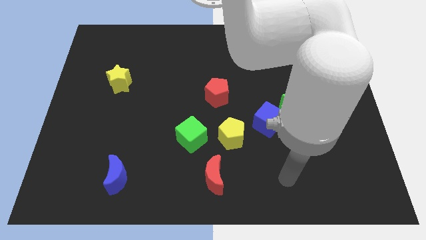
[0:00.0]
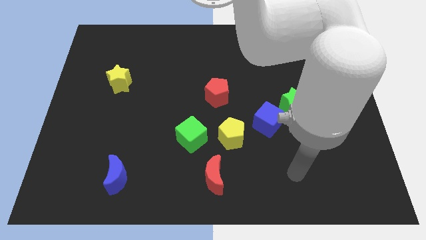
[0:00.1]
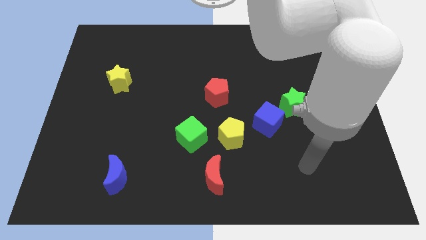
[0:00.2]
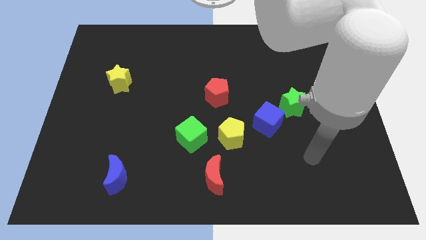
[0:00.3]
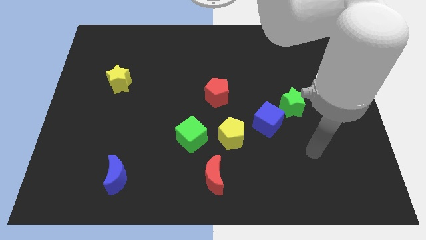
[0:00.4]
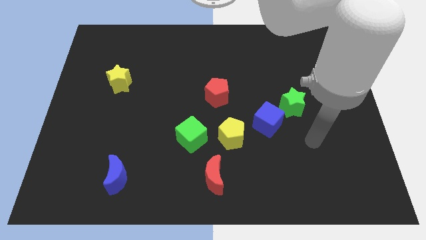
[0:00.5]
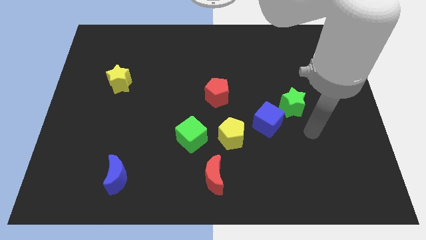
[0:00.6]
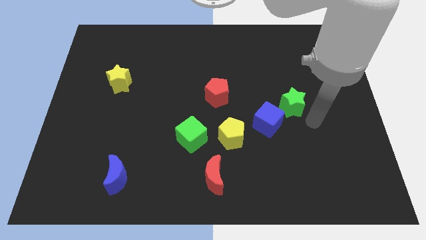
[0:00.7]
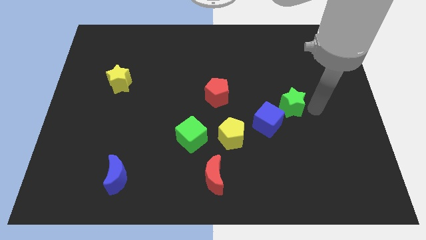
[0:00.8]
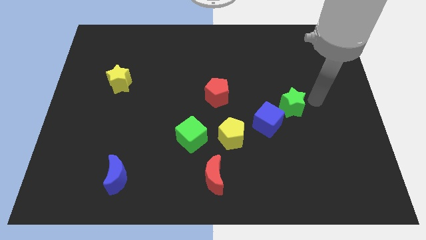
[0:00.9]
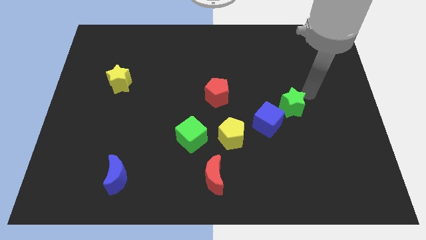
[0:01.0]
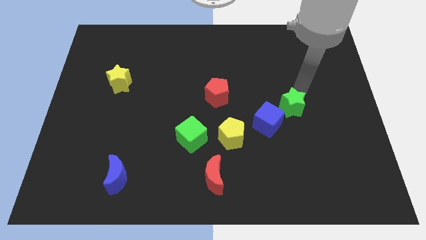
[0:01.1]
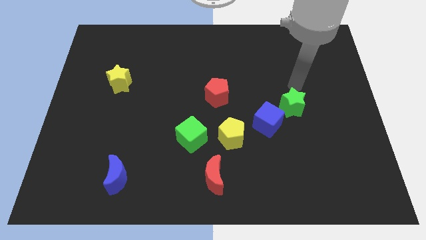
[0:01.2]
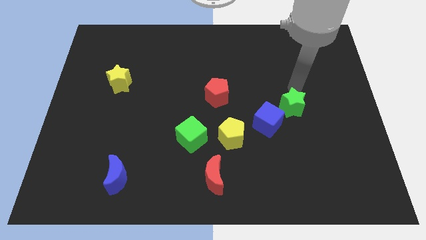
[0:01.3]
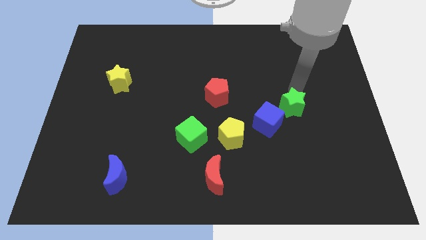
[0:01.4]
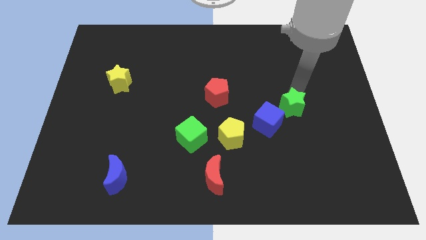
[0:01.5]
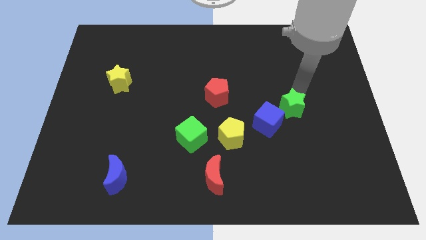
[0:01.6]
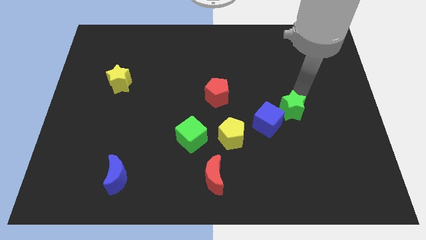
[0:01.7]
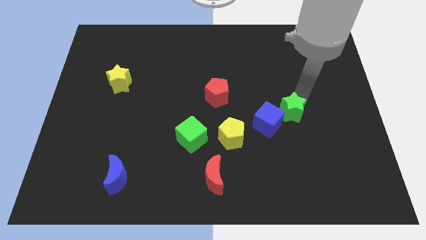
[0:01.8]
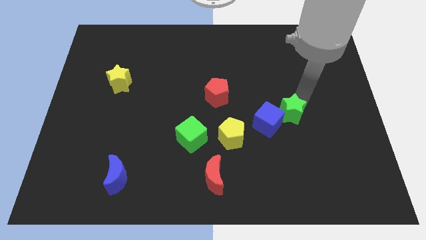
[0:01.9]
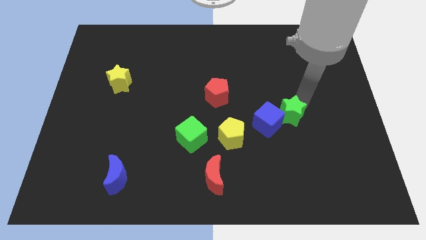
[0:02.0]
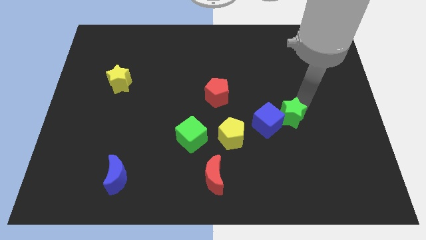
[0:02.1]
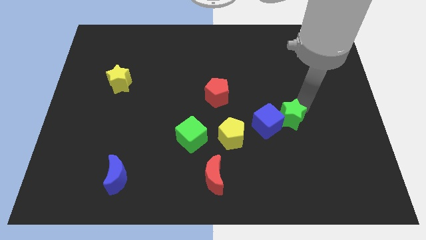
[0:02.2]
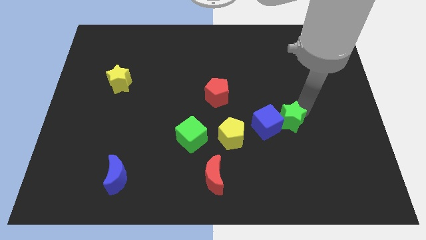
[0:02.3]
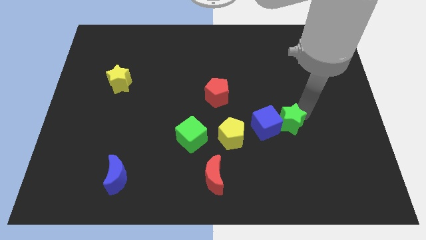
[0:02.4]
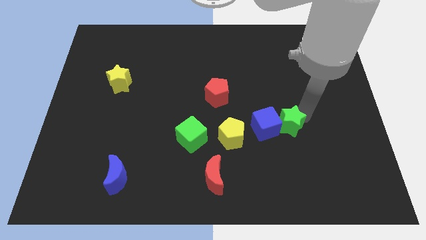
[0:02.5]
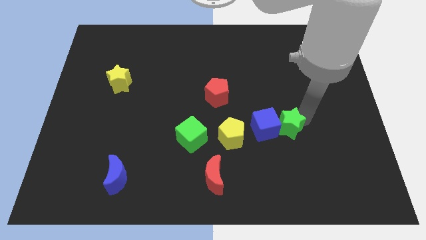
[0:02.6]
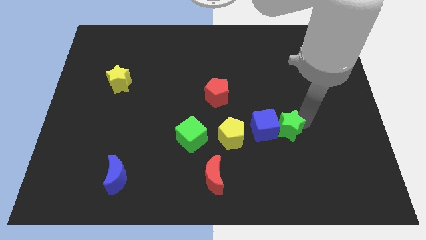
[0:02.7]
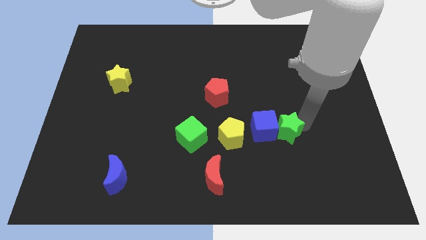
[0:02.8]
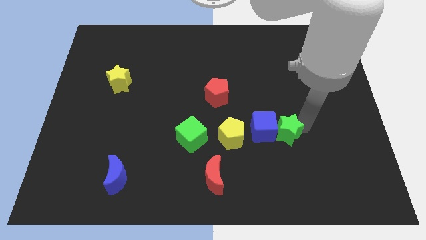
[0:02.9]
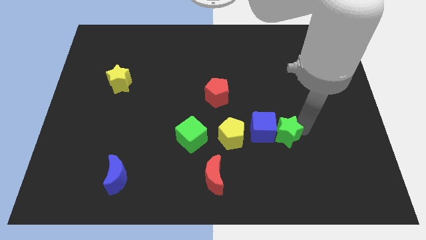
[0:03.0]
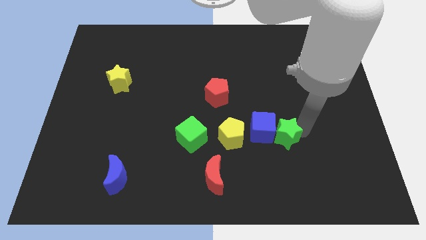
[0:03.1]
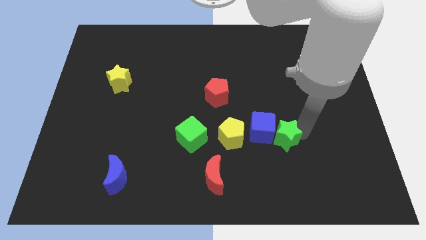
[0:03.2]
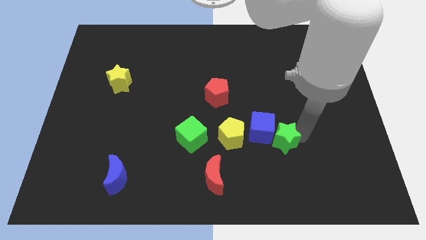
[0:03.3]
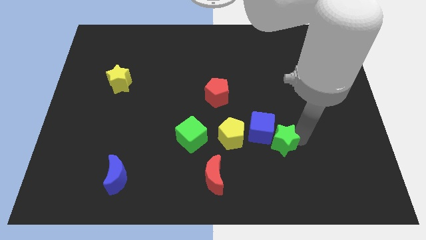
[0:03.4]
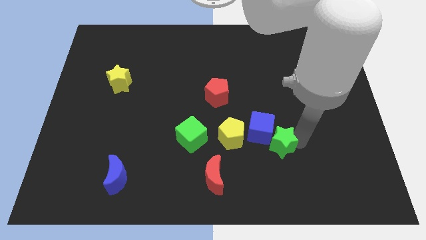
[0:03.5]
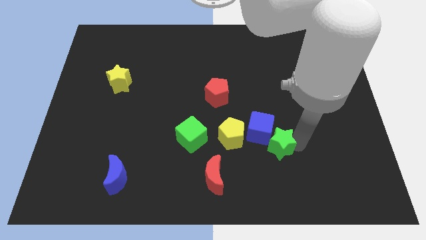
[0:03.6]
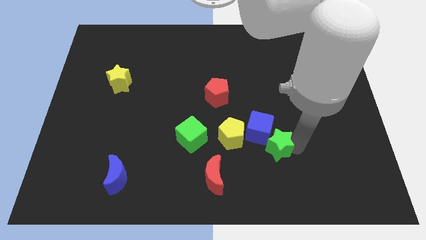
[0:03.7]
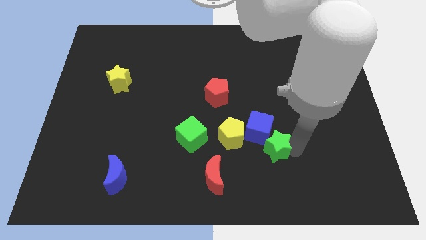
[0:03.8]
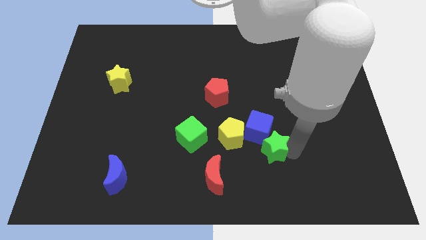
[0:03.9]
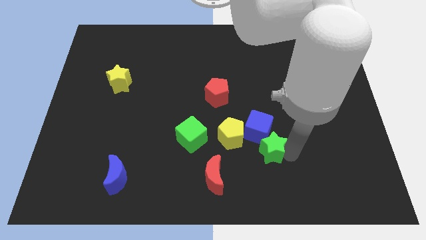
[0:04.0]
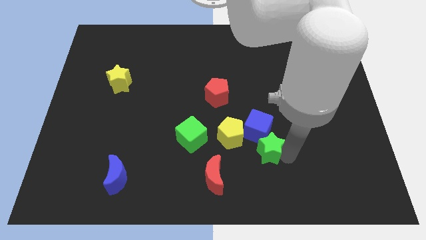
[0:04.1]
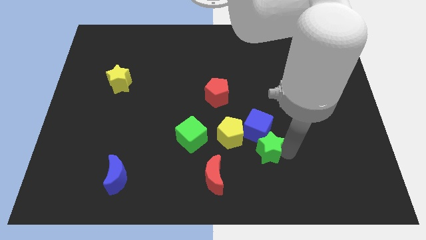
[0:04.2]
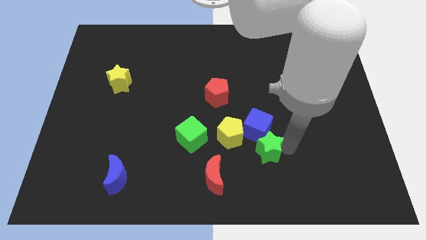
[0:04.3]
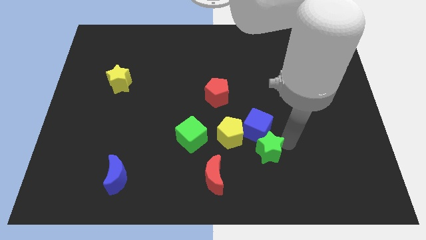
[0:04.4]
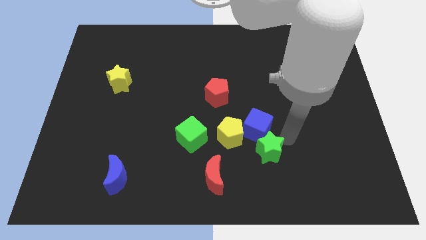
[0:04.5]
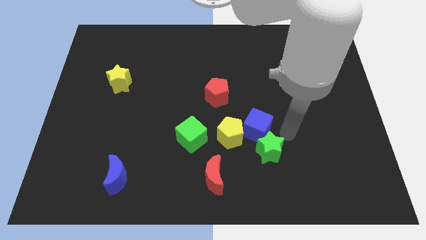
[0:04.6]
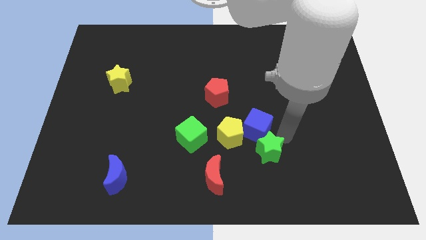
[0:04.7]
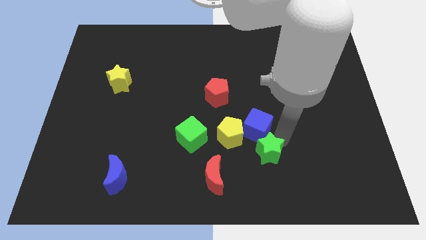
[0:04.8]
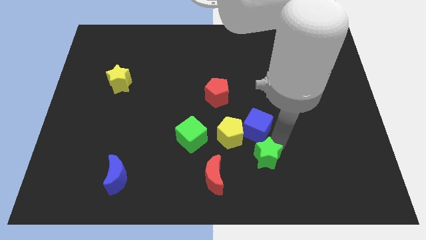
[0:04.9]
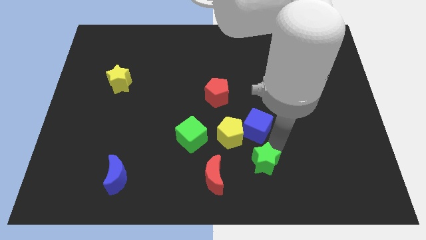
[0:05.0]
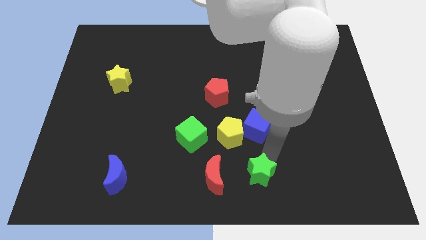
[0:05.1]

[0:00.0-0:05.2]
push the green star to the bottom
